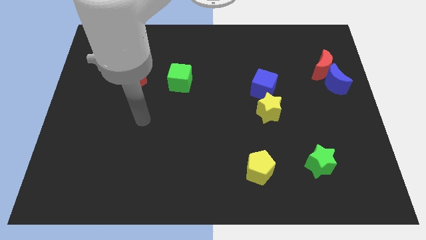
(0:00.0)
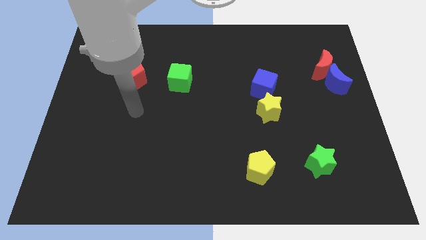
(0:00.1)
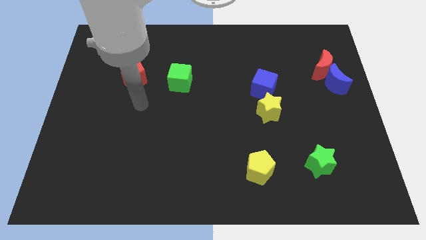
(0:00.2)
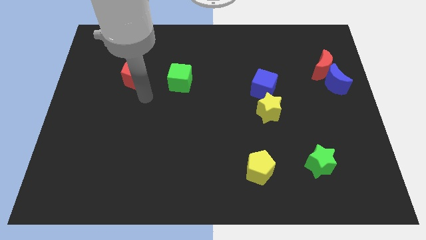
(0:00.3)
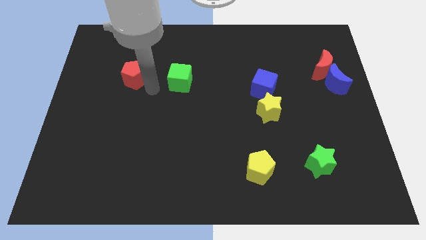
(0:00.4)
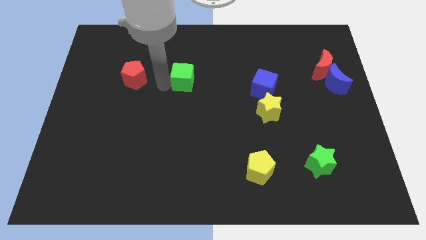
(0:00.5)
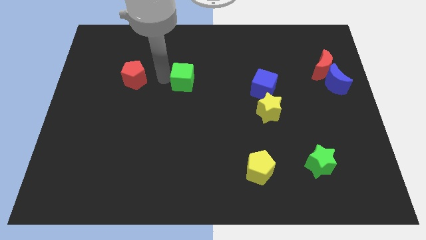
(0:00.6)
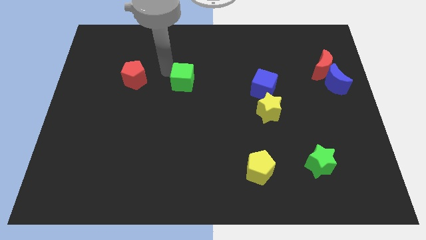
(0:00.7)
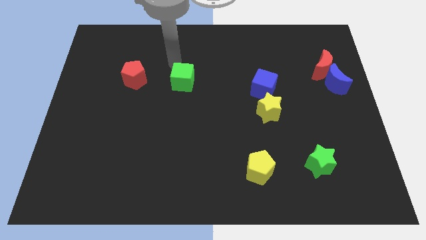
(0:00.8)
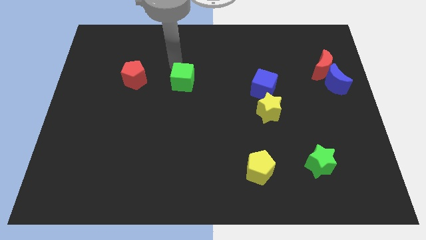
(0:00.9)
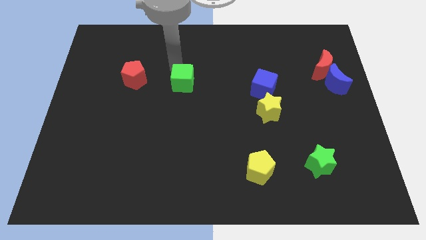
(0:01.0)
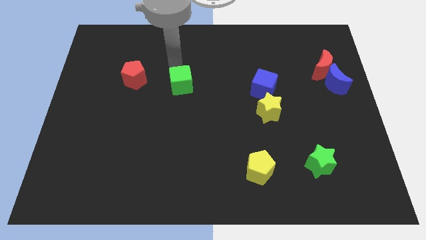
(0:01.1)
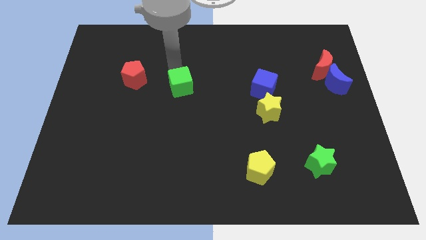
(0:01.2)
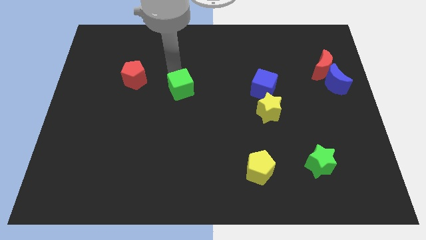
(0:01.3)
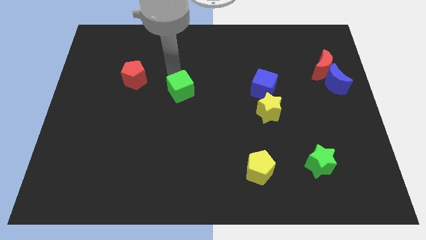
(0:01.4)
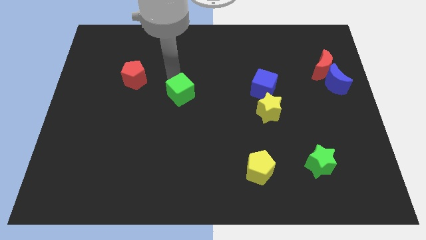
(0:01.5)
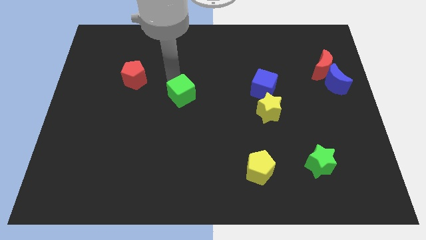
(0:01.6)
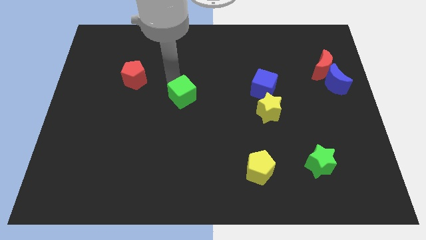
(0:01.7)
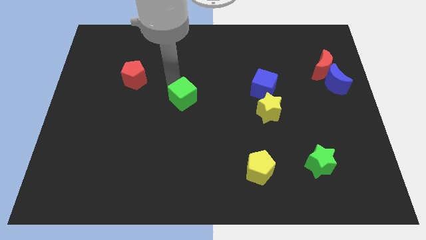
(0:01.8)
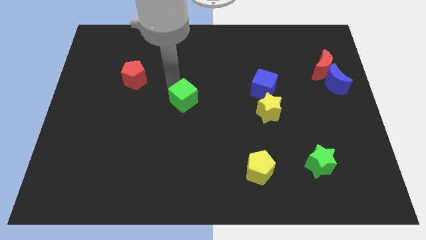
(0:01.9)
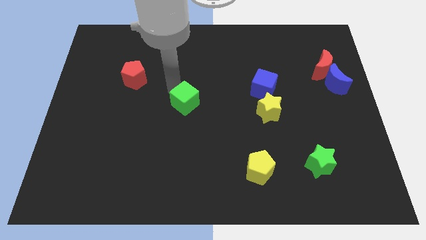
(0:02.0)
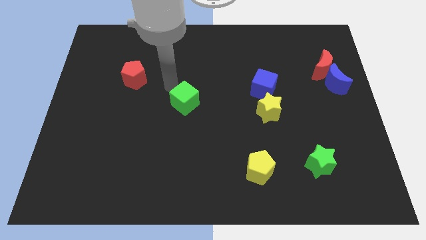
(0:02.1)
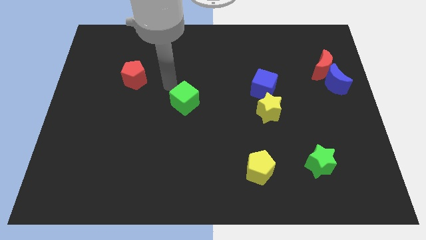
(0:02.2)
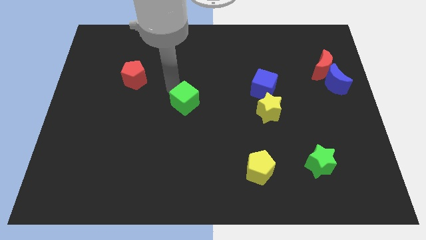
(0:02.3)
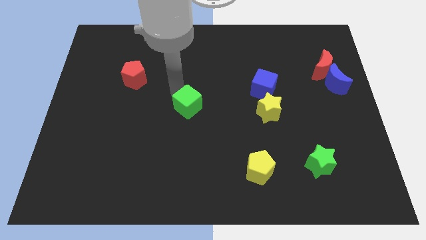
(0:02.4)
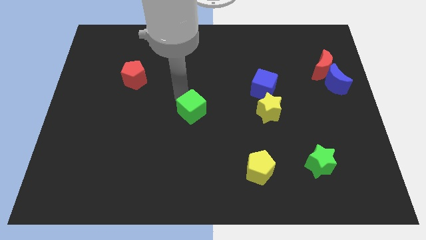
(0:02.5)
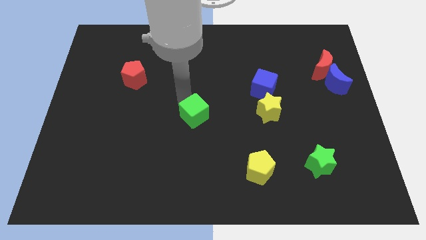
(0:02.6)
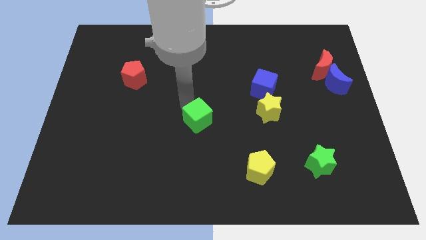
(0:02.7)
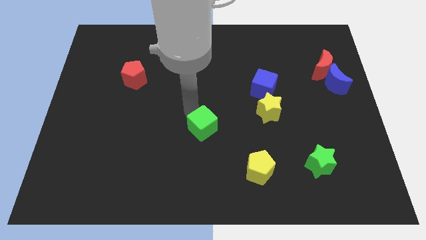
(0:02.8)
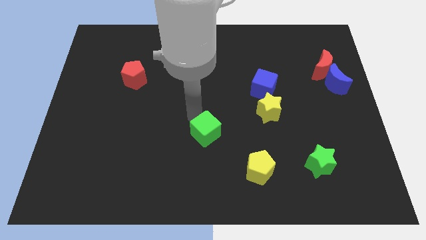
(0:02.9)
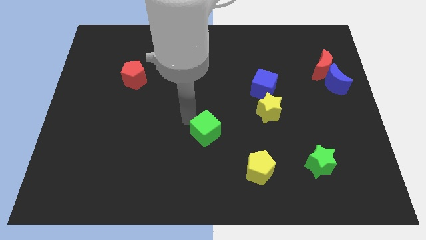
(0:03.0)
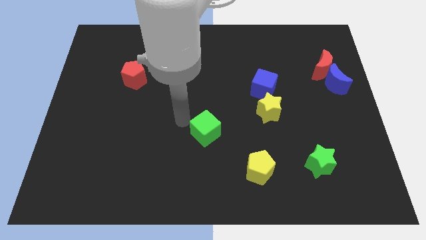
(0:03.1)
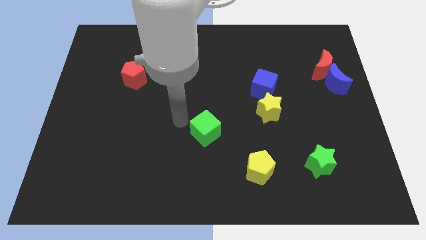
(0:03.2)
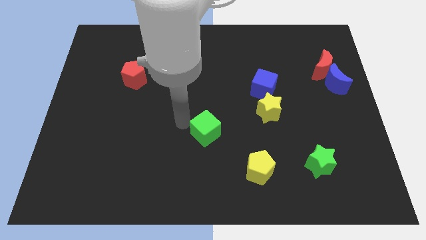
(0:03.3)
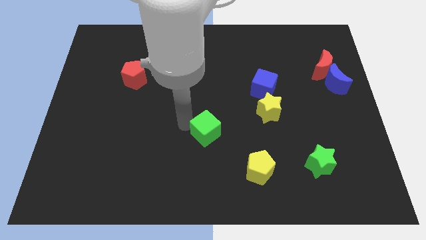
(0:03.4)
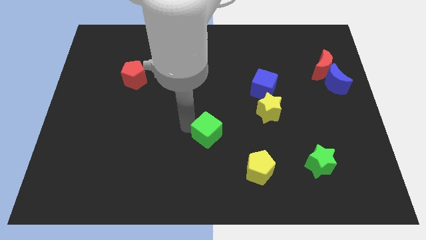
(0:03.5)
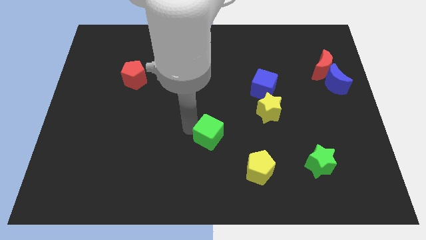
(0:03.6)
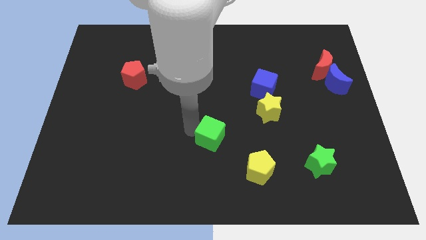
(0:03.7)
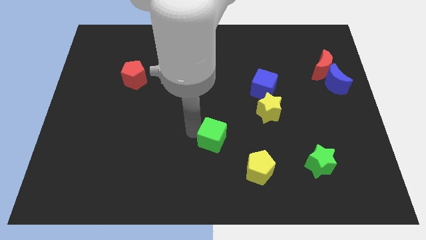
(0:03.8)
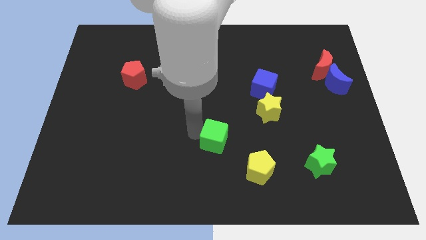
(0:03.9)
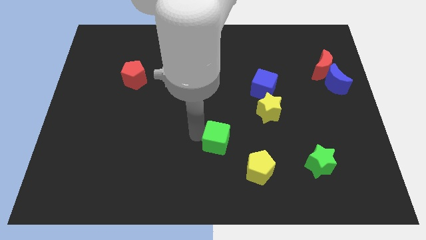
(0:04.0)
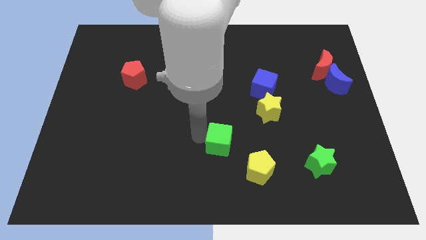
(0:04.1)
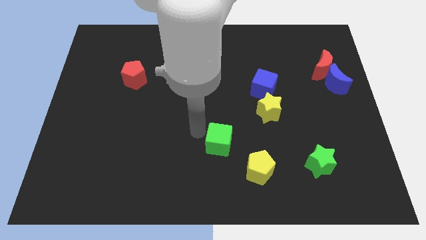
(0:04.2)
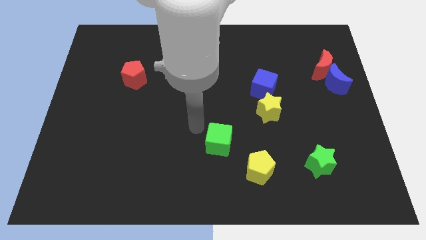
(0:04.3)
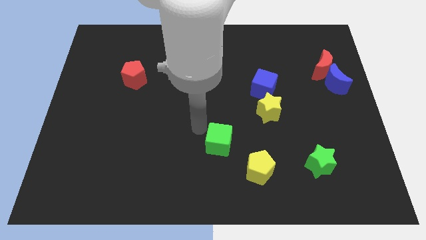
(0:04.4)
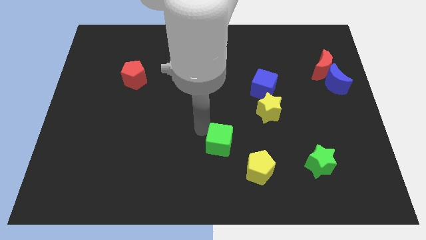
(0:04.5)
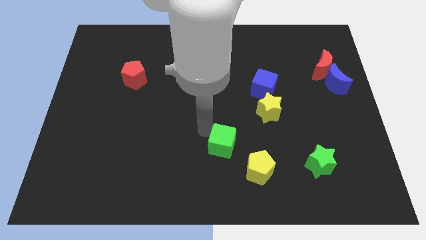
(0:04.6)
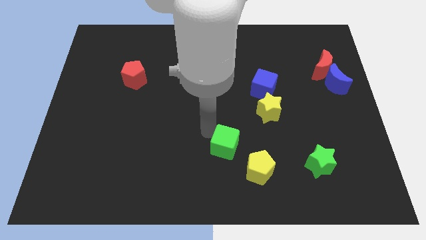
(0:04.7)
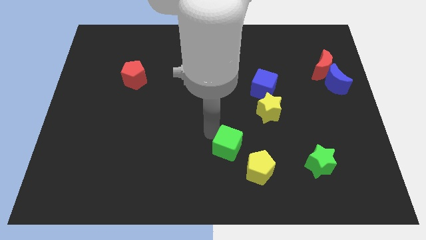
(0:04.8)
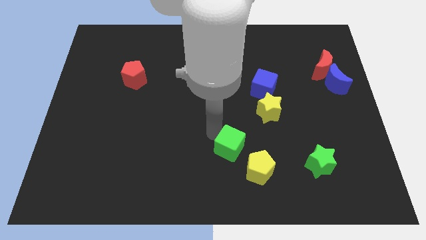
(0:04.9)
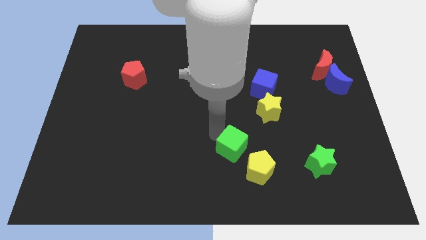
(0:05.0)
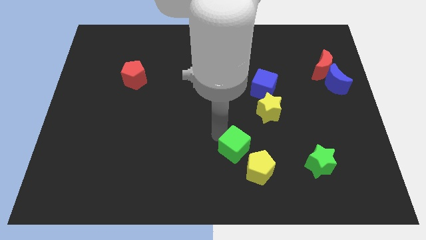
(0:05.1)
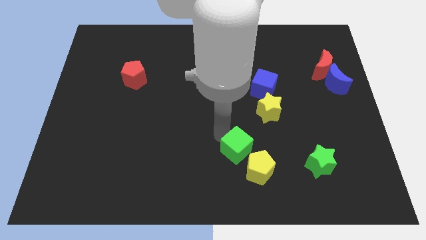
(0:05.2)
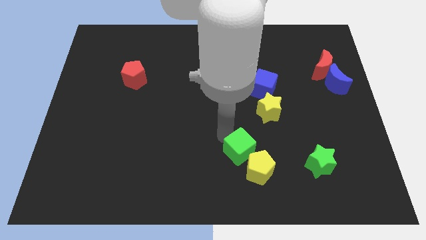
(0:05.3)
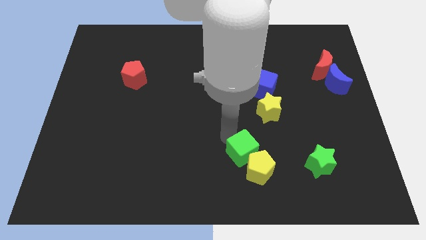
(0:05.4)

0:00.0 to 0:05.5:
put the green cube next to the yellow pentagon

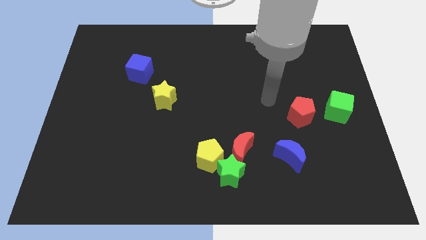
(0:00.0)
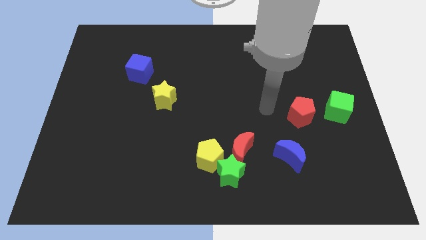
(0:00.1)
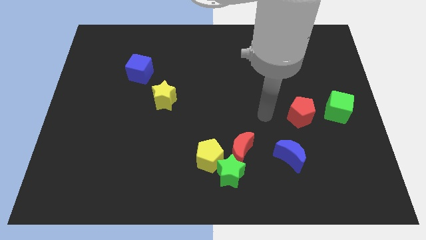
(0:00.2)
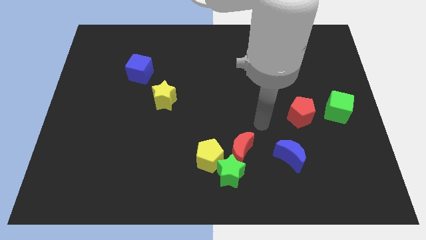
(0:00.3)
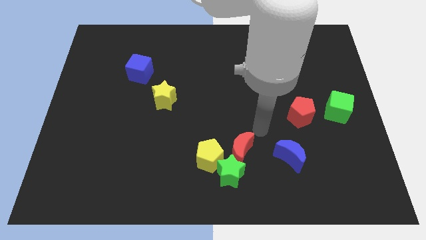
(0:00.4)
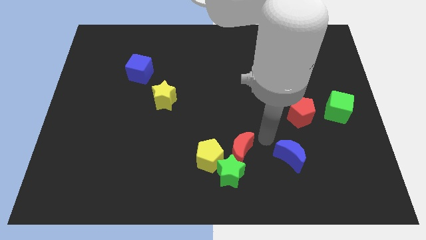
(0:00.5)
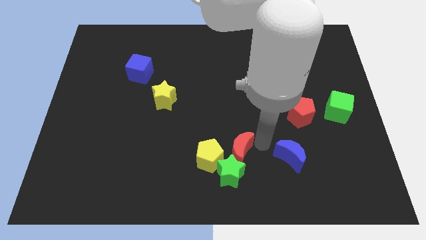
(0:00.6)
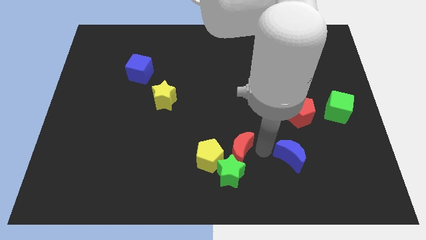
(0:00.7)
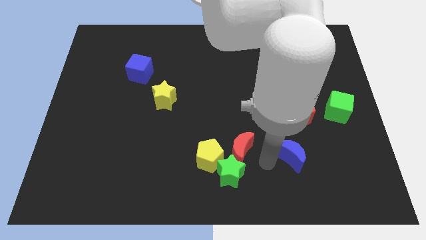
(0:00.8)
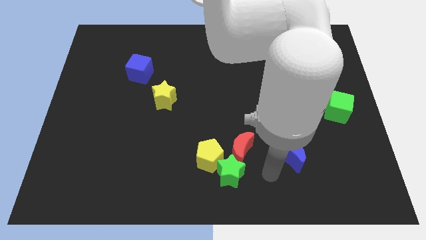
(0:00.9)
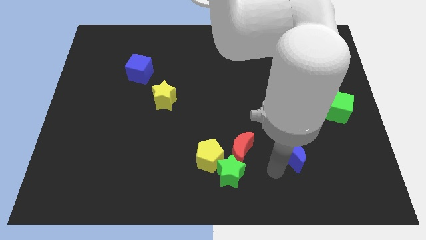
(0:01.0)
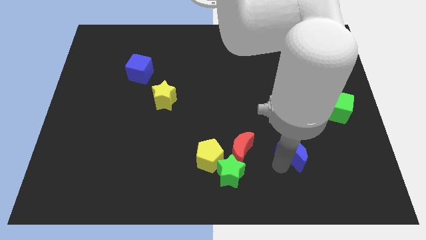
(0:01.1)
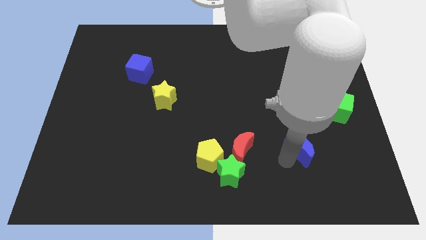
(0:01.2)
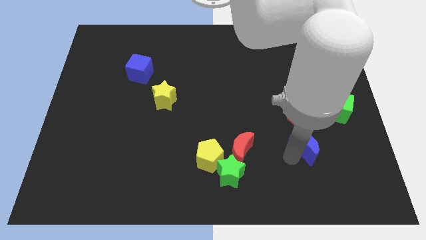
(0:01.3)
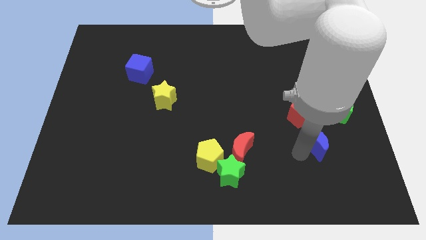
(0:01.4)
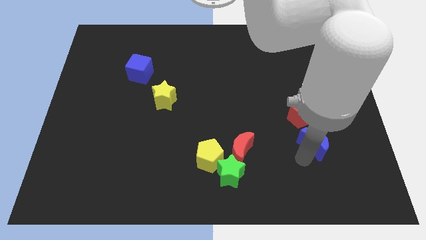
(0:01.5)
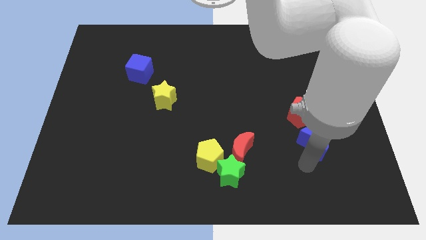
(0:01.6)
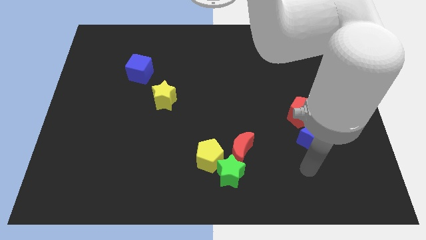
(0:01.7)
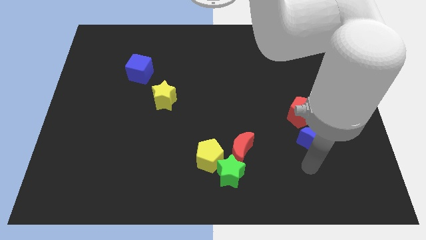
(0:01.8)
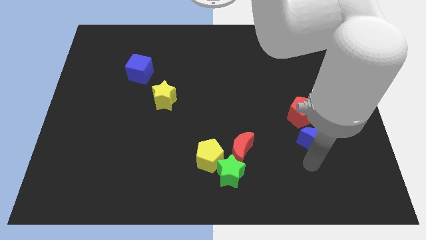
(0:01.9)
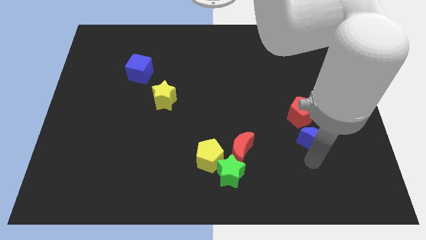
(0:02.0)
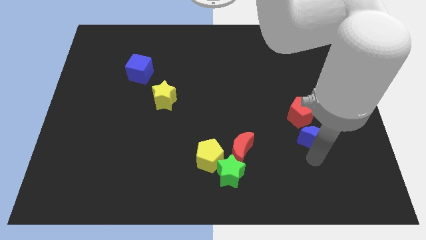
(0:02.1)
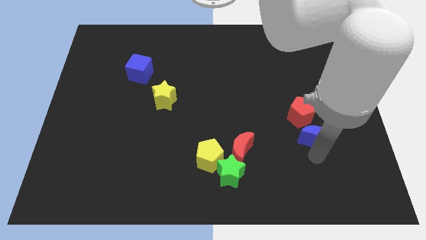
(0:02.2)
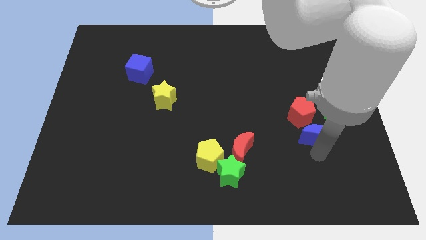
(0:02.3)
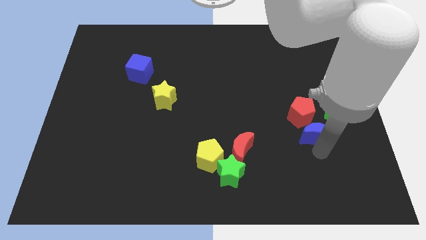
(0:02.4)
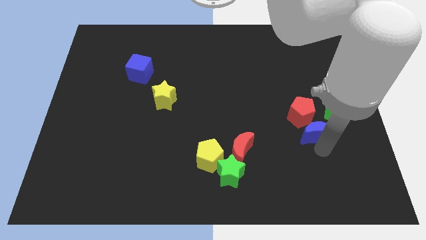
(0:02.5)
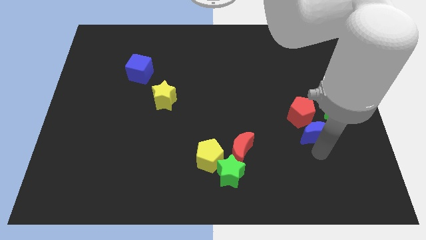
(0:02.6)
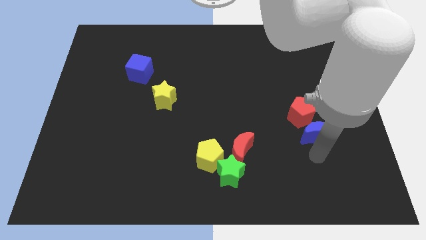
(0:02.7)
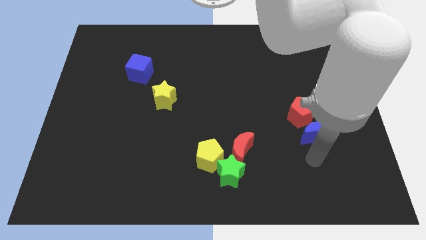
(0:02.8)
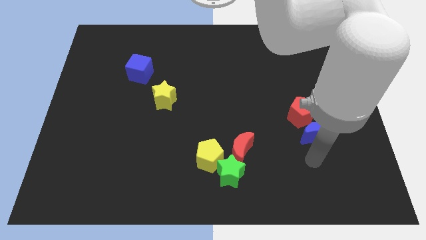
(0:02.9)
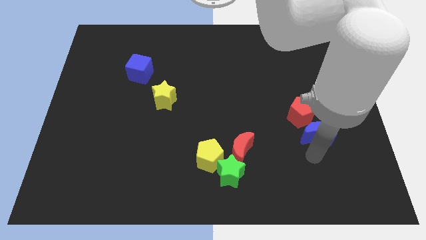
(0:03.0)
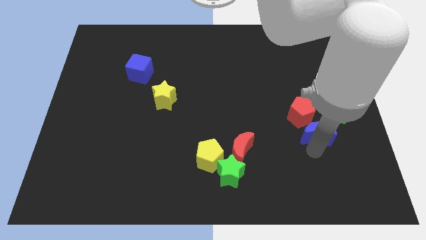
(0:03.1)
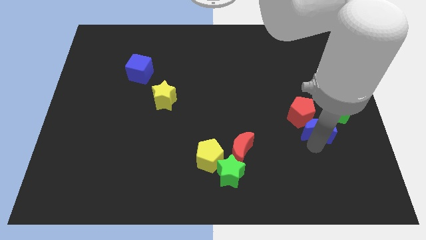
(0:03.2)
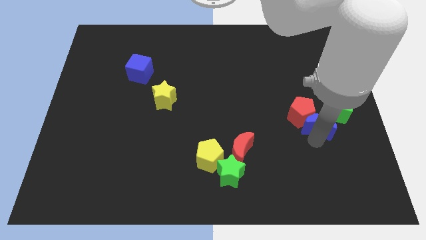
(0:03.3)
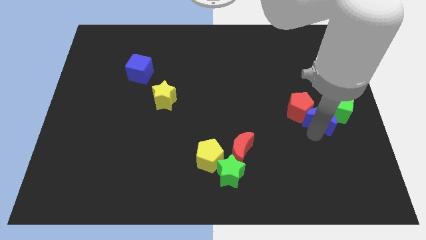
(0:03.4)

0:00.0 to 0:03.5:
slide the blue moon to the green cube
